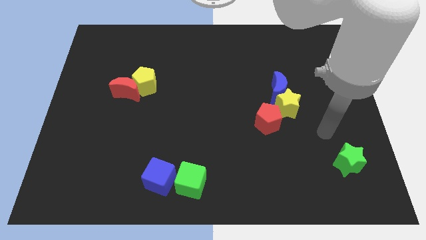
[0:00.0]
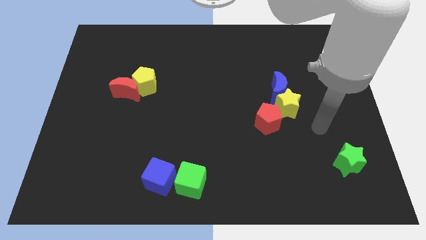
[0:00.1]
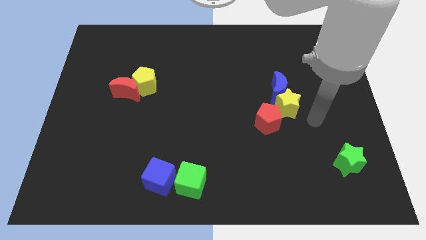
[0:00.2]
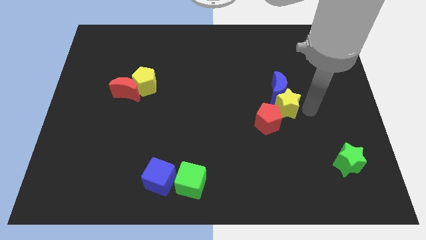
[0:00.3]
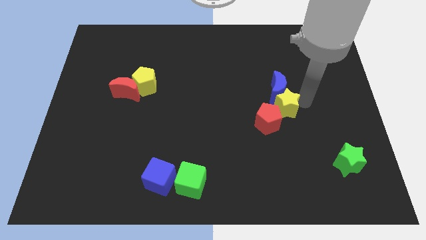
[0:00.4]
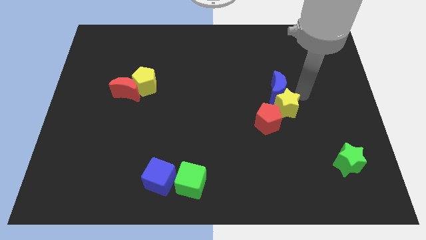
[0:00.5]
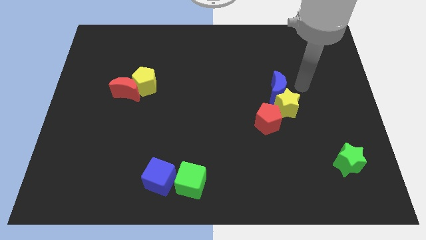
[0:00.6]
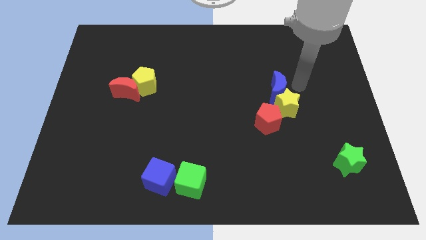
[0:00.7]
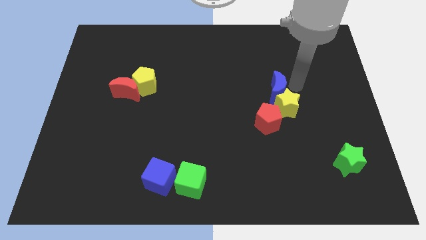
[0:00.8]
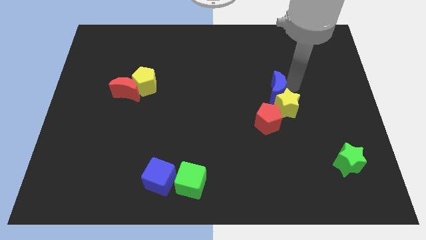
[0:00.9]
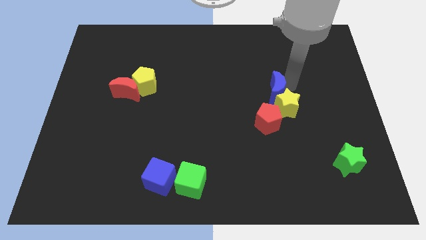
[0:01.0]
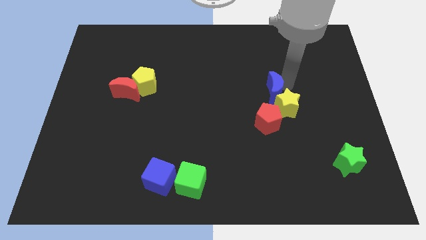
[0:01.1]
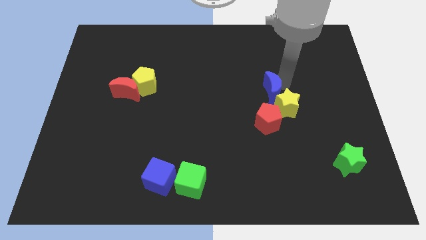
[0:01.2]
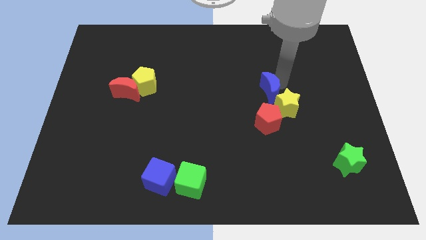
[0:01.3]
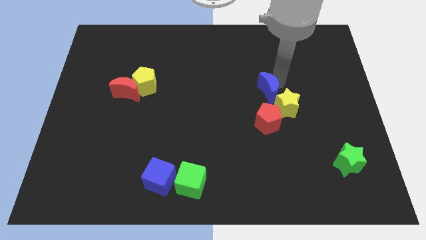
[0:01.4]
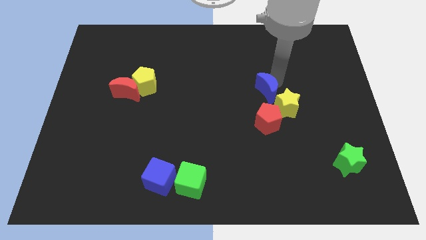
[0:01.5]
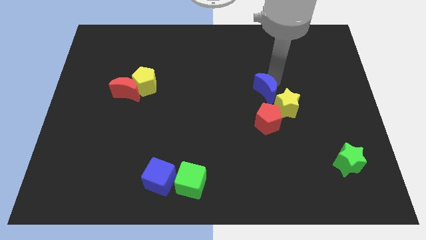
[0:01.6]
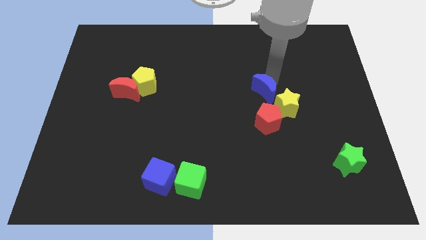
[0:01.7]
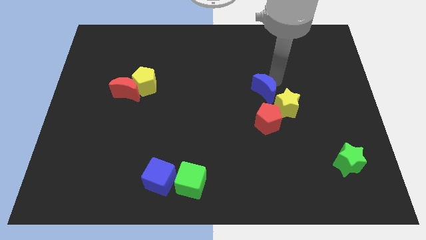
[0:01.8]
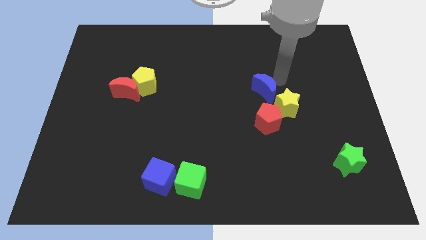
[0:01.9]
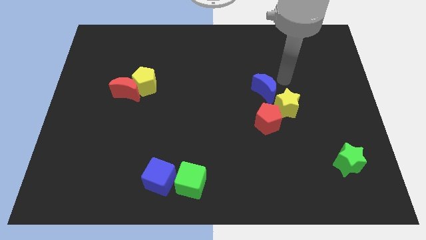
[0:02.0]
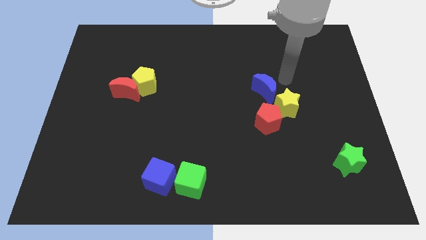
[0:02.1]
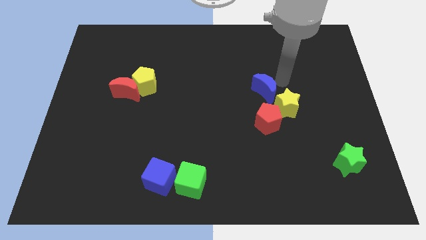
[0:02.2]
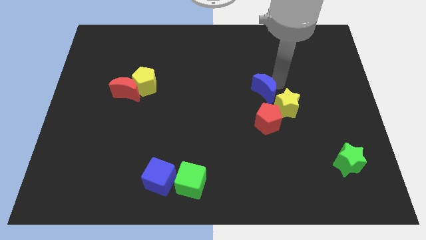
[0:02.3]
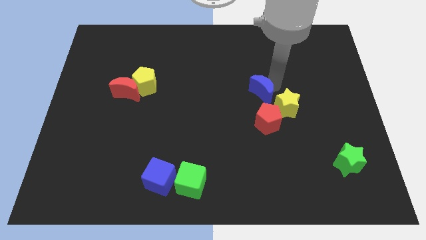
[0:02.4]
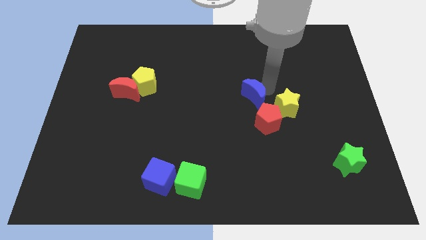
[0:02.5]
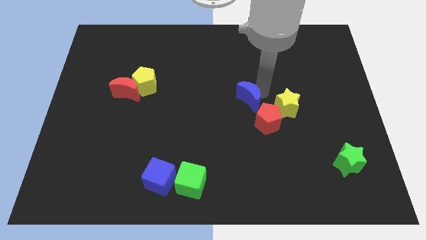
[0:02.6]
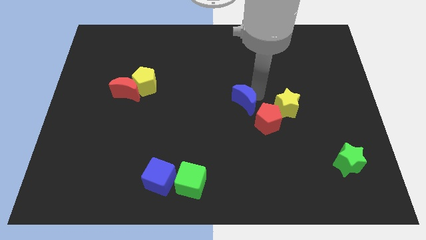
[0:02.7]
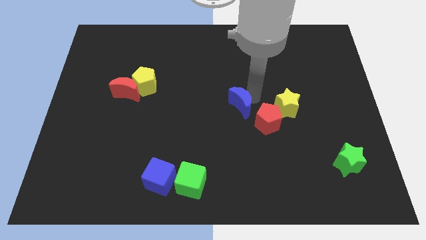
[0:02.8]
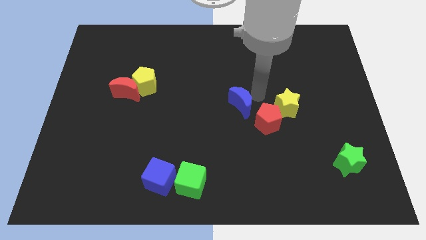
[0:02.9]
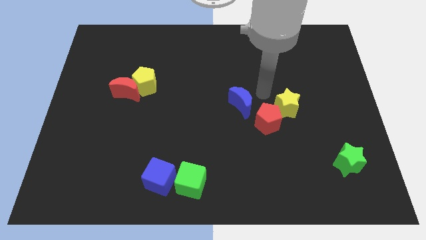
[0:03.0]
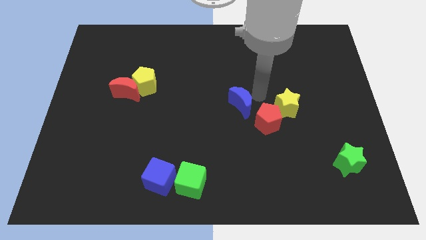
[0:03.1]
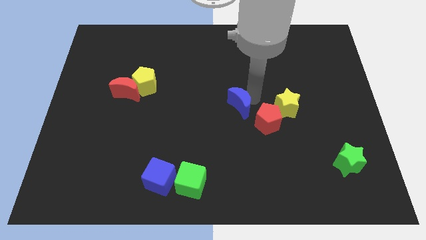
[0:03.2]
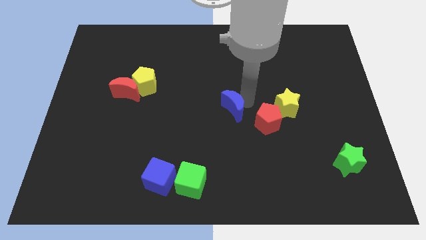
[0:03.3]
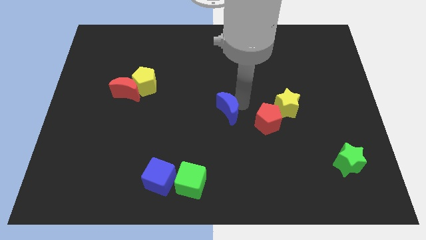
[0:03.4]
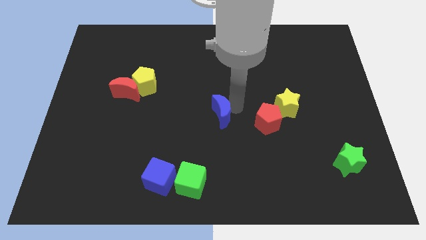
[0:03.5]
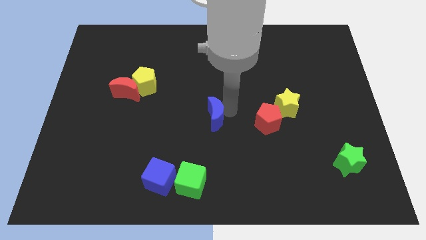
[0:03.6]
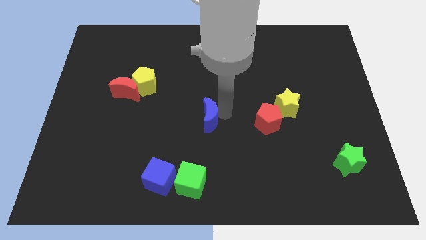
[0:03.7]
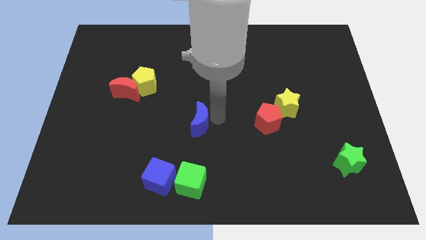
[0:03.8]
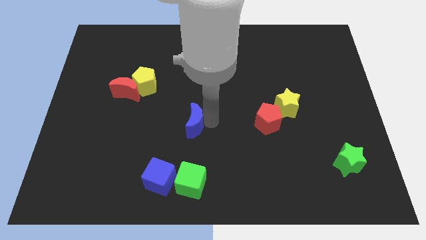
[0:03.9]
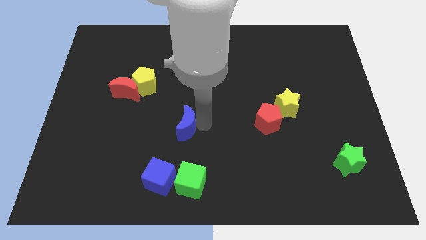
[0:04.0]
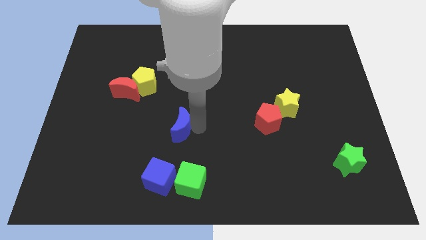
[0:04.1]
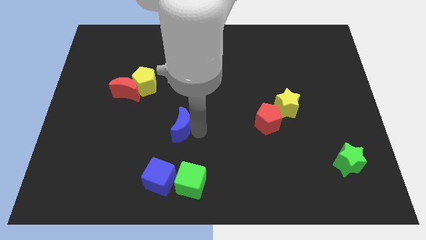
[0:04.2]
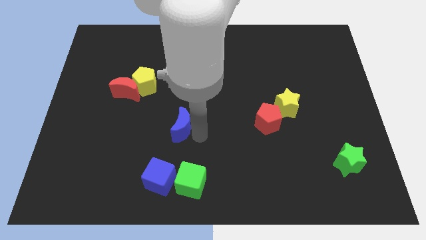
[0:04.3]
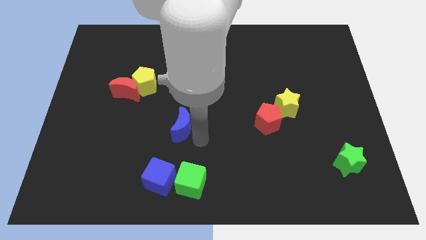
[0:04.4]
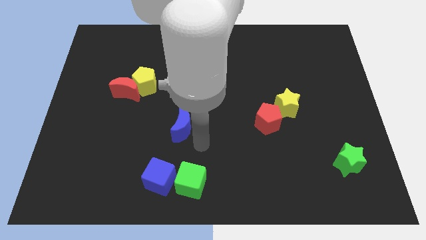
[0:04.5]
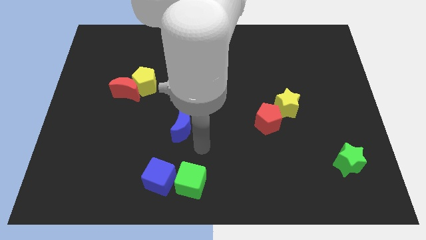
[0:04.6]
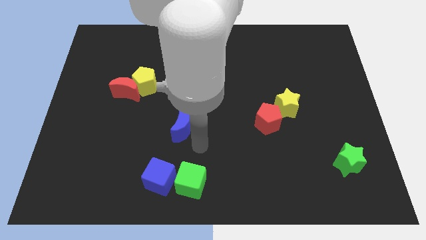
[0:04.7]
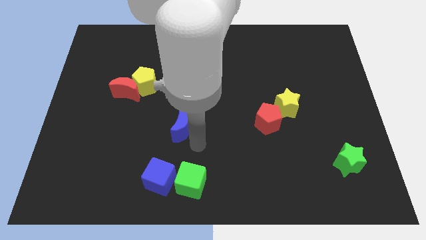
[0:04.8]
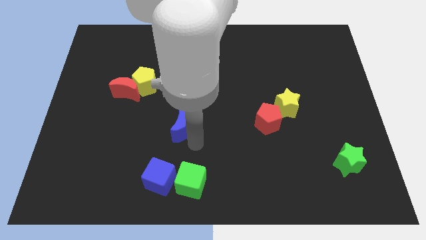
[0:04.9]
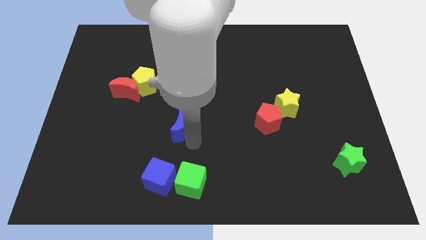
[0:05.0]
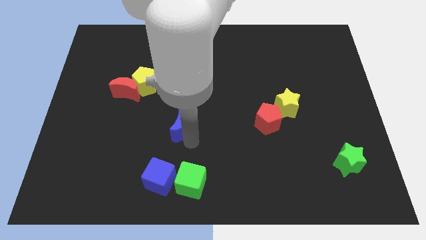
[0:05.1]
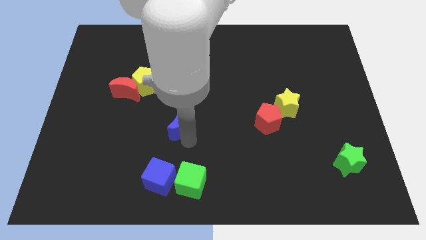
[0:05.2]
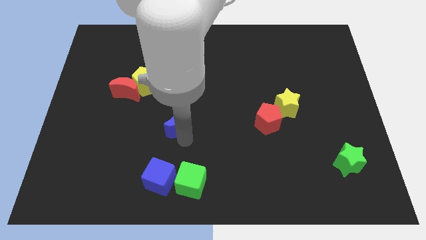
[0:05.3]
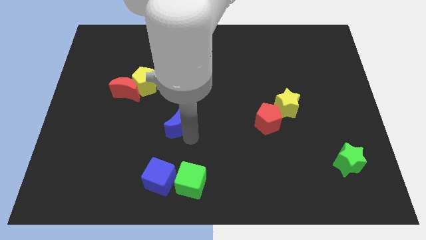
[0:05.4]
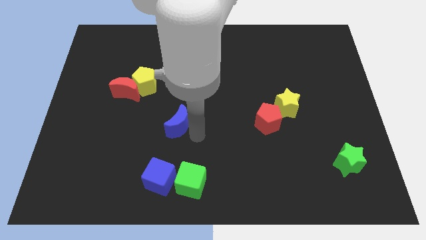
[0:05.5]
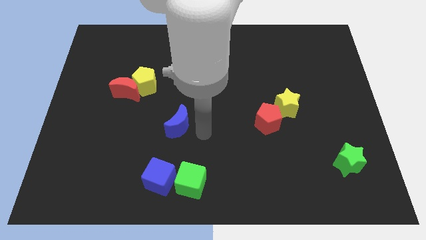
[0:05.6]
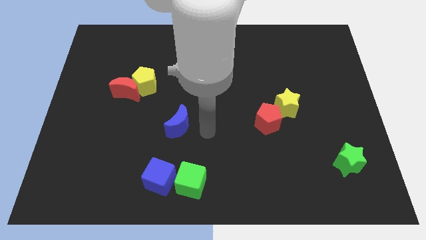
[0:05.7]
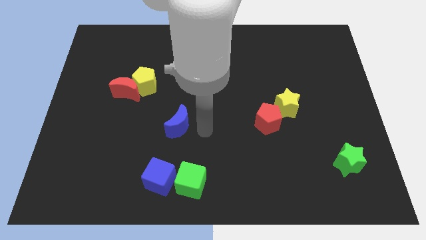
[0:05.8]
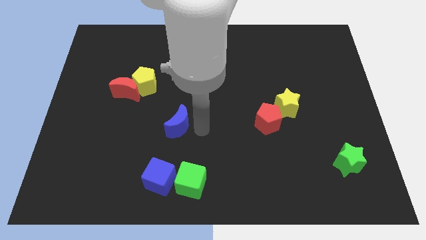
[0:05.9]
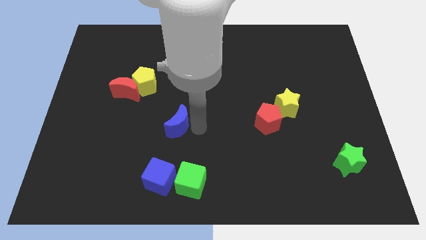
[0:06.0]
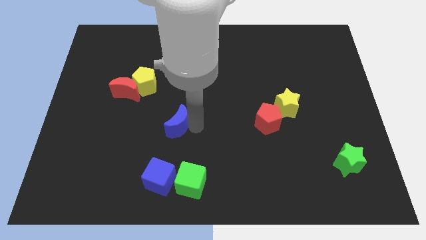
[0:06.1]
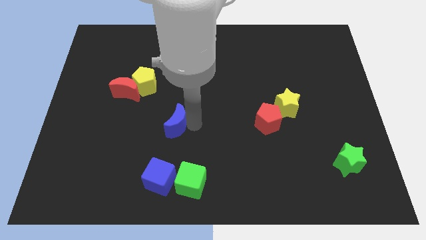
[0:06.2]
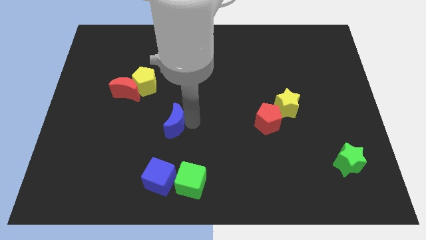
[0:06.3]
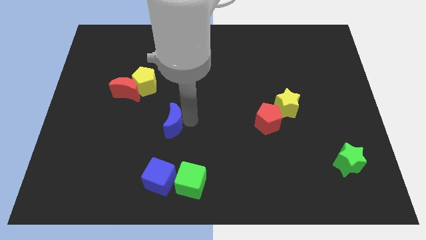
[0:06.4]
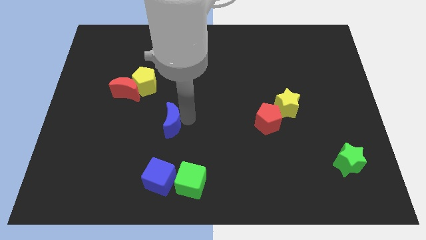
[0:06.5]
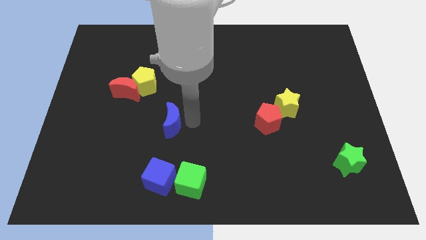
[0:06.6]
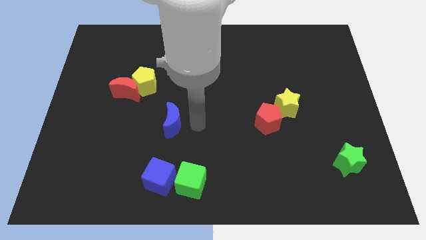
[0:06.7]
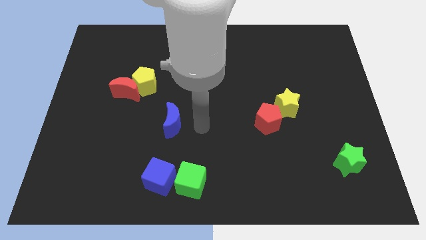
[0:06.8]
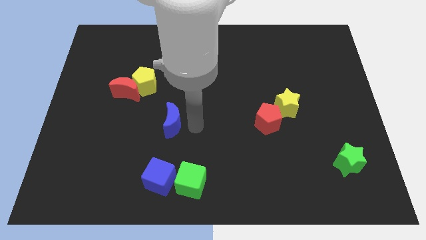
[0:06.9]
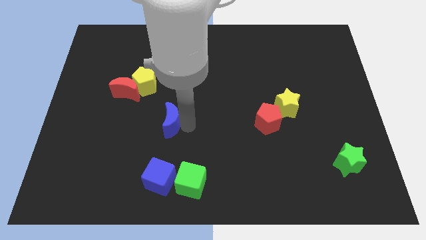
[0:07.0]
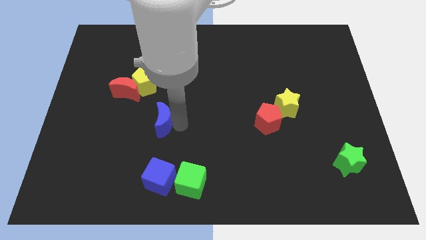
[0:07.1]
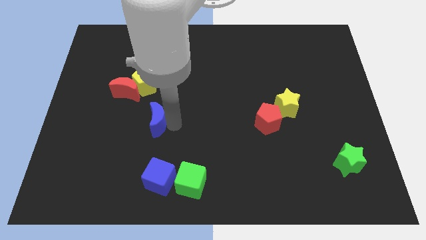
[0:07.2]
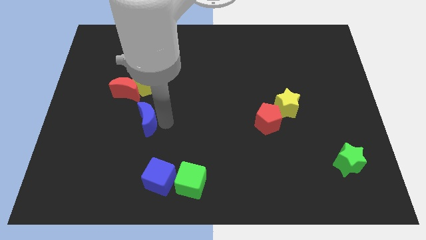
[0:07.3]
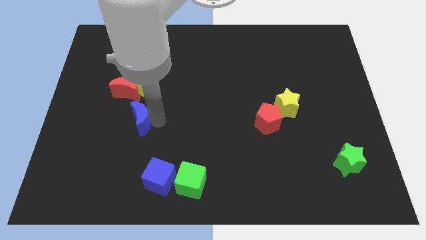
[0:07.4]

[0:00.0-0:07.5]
push the blue moon to the bottom of the red moon
